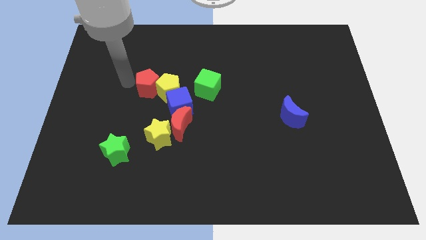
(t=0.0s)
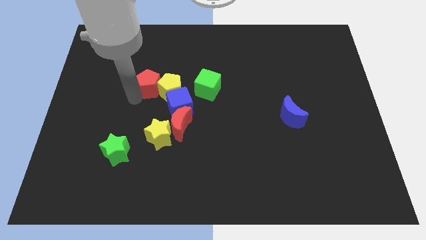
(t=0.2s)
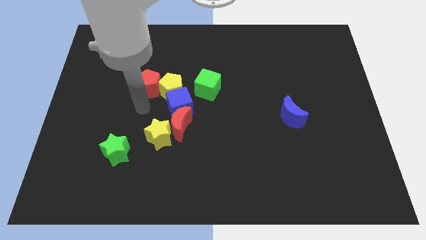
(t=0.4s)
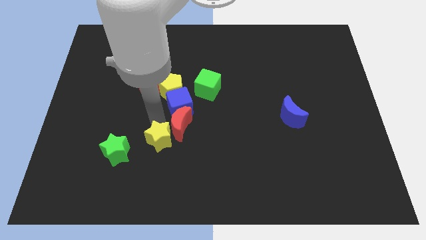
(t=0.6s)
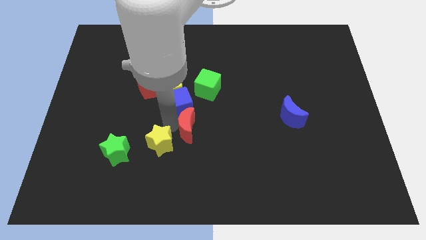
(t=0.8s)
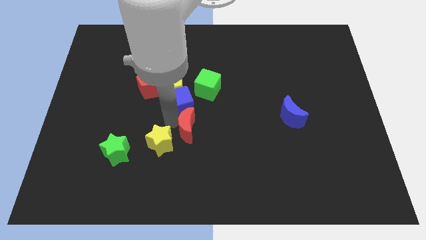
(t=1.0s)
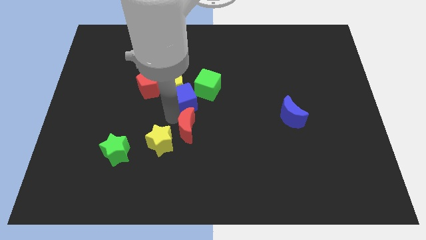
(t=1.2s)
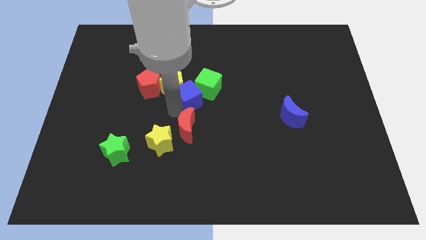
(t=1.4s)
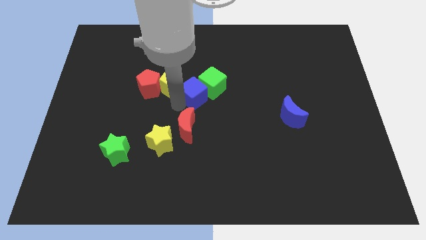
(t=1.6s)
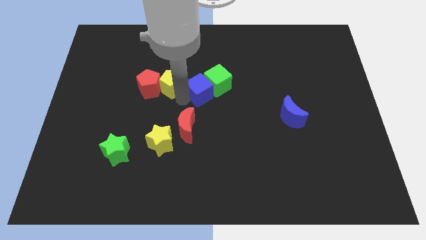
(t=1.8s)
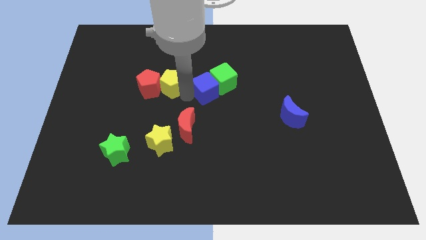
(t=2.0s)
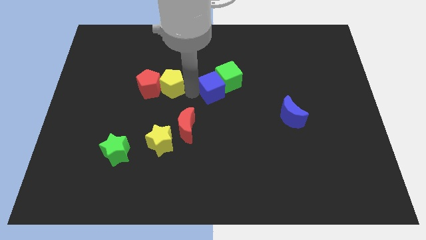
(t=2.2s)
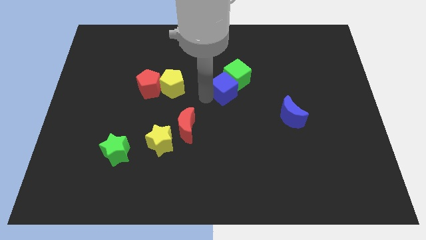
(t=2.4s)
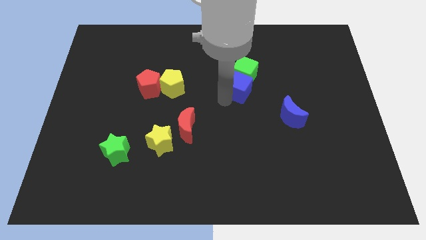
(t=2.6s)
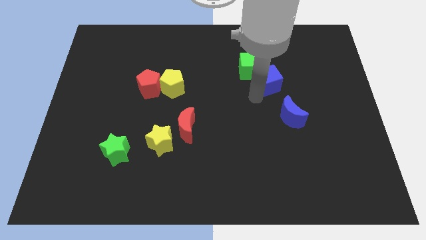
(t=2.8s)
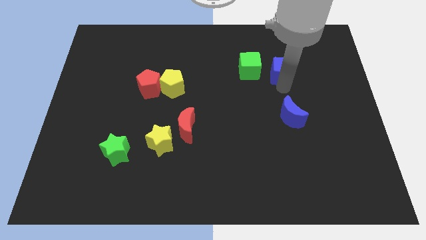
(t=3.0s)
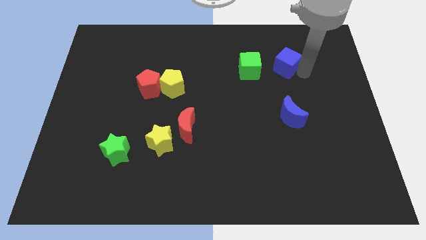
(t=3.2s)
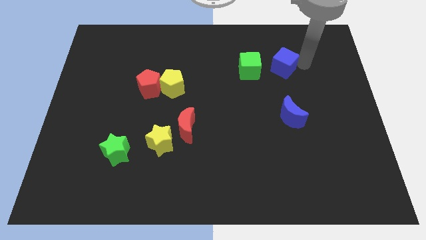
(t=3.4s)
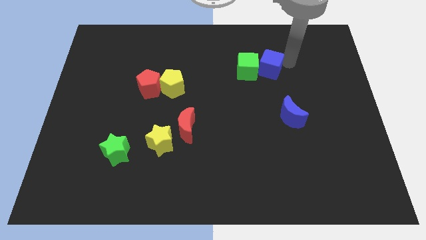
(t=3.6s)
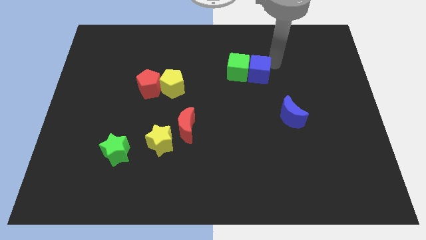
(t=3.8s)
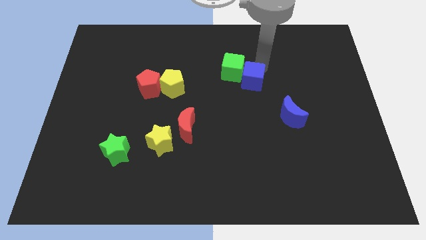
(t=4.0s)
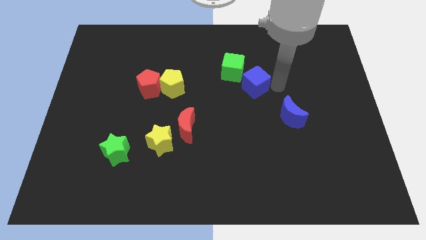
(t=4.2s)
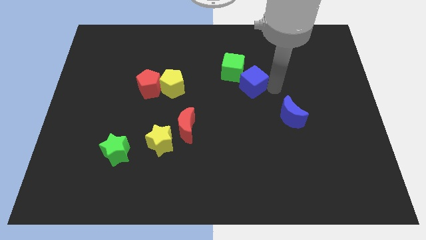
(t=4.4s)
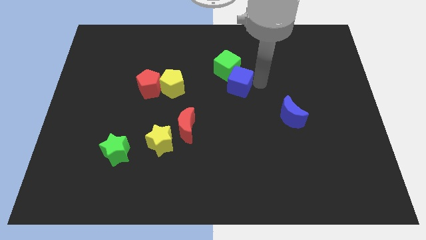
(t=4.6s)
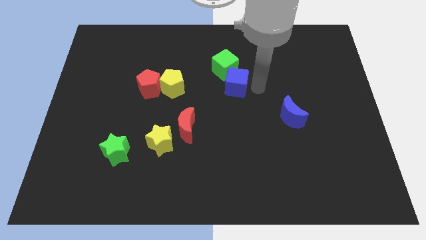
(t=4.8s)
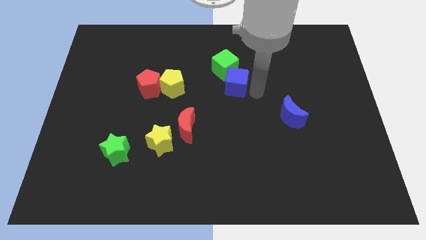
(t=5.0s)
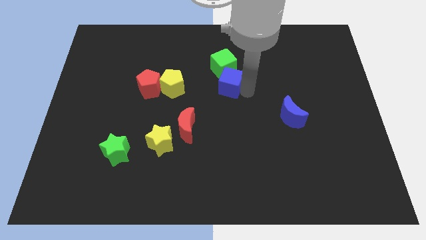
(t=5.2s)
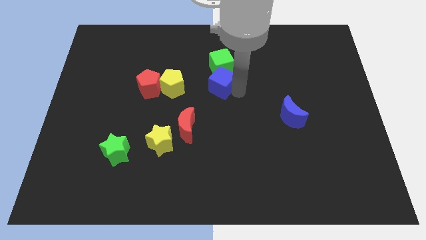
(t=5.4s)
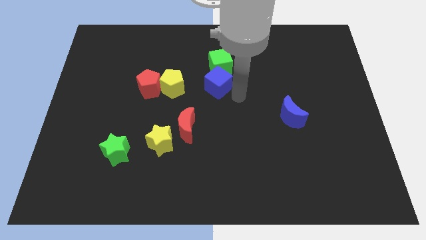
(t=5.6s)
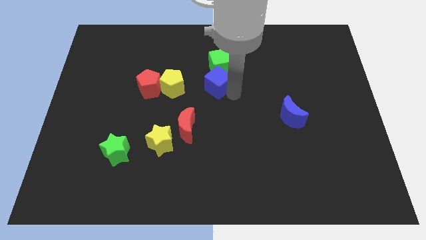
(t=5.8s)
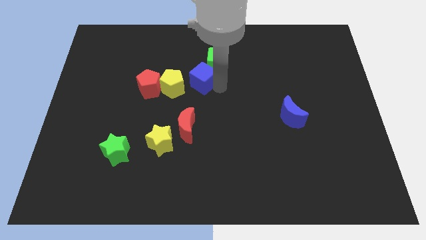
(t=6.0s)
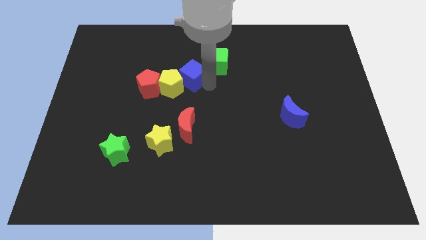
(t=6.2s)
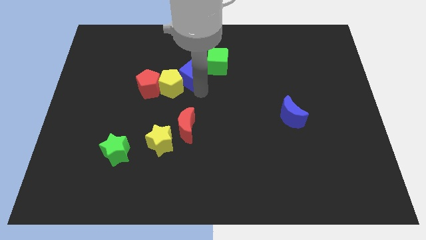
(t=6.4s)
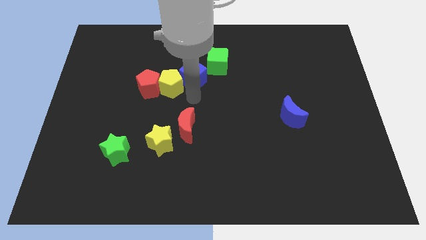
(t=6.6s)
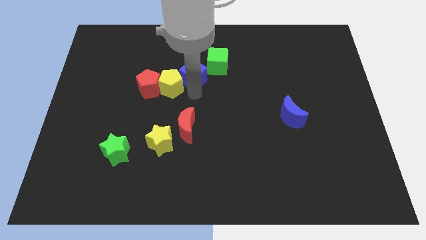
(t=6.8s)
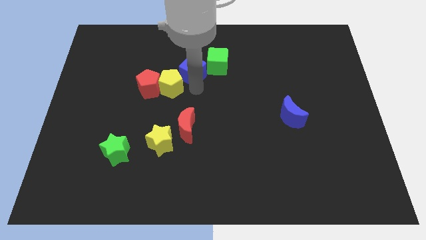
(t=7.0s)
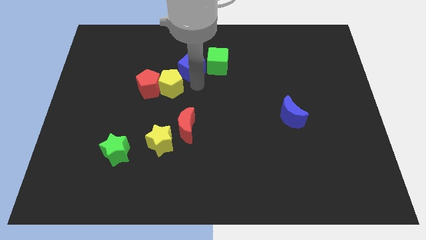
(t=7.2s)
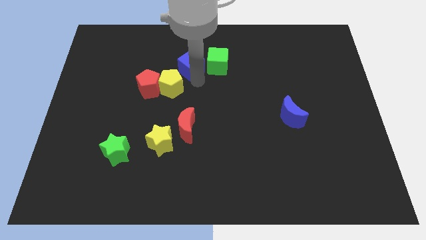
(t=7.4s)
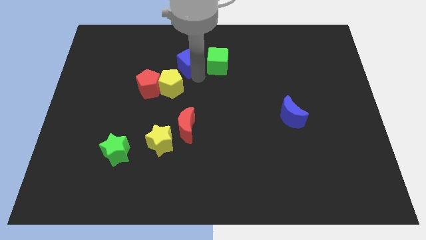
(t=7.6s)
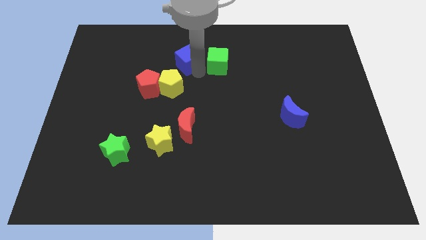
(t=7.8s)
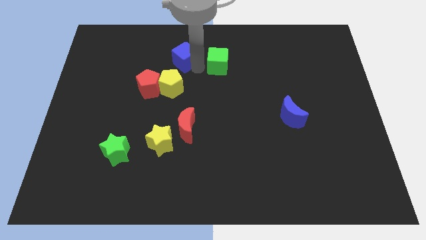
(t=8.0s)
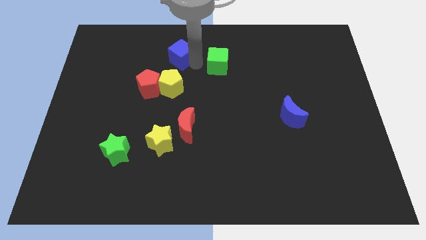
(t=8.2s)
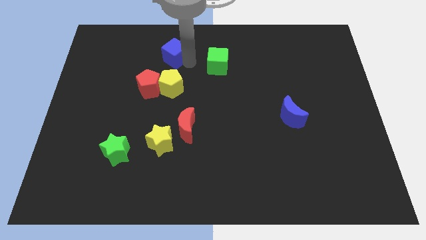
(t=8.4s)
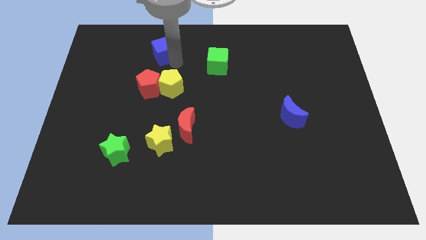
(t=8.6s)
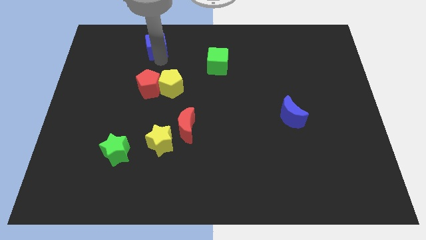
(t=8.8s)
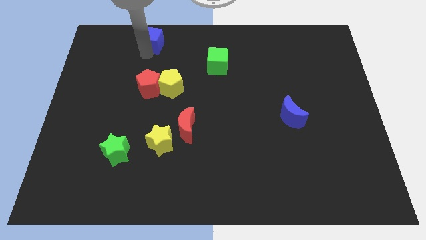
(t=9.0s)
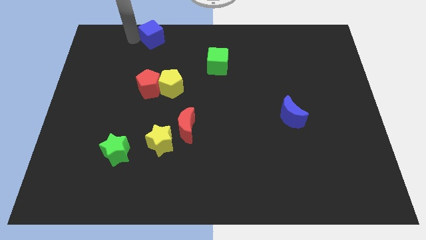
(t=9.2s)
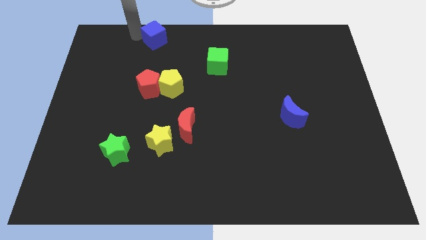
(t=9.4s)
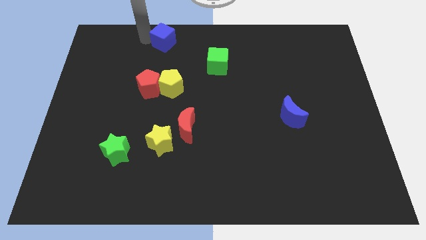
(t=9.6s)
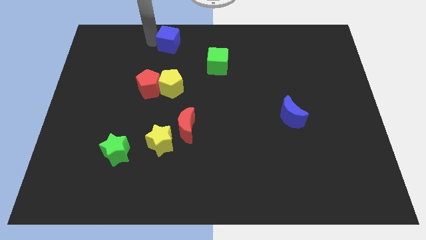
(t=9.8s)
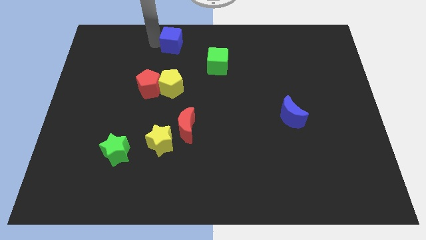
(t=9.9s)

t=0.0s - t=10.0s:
slide the blue cube to the top

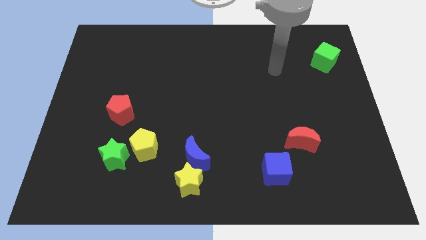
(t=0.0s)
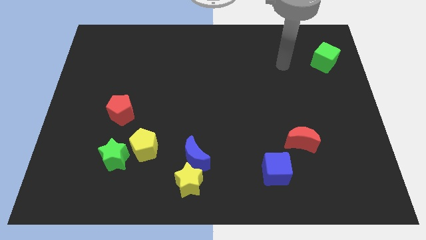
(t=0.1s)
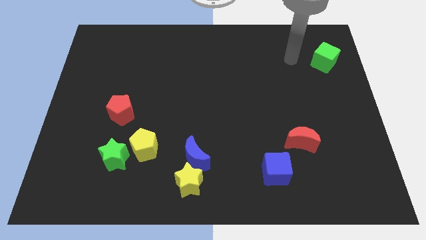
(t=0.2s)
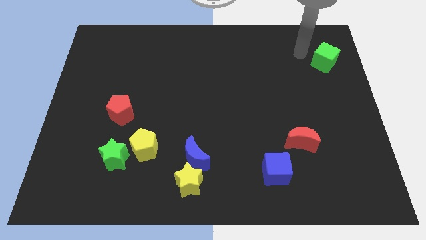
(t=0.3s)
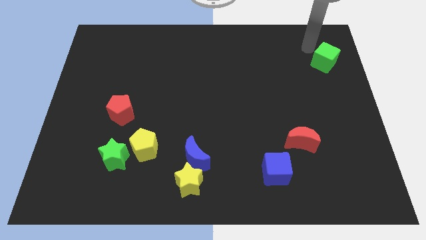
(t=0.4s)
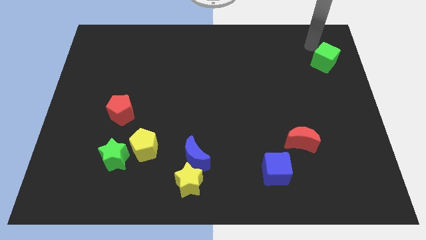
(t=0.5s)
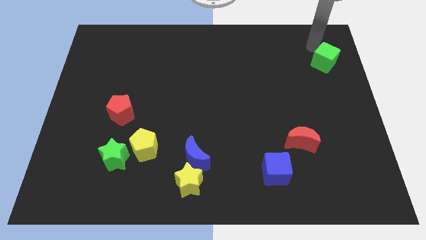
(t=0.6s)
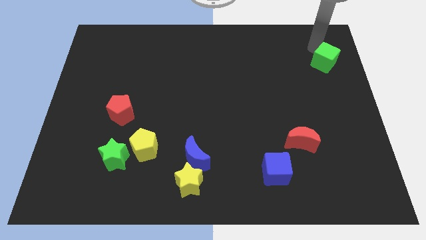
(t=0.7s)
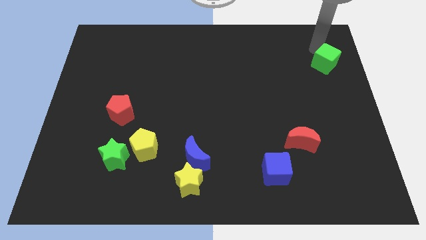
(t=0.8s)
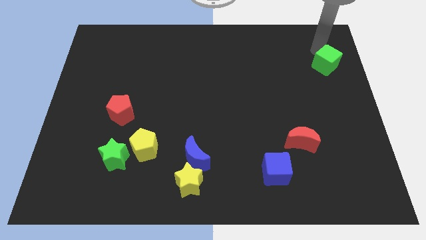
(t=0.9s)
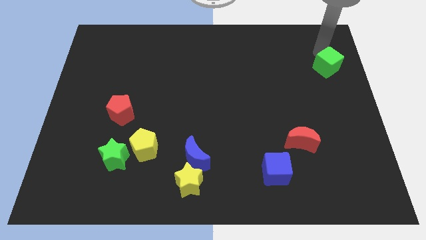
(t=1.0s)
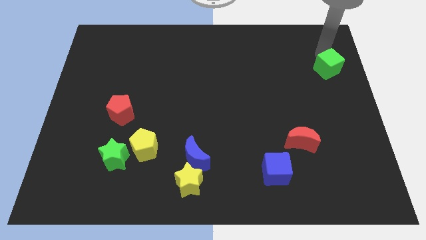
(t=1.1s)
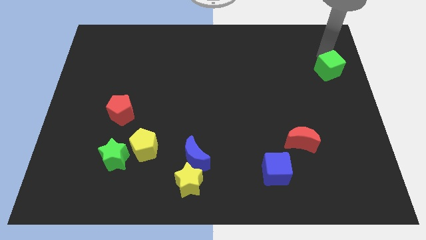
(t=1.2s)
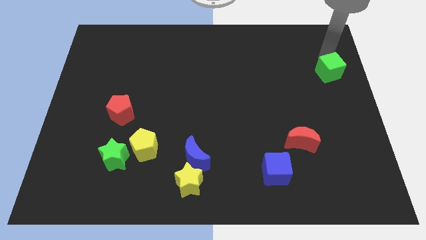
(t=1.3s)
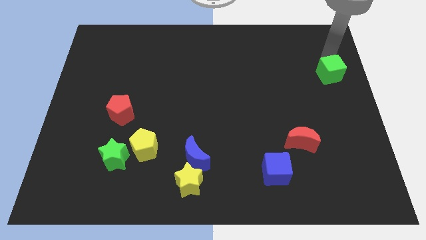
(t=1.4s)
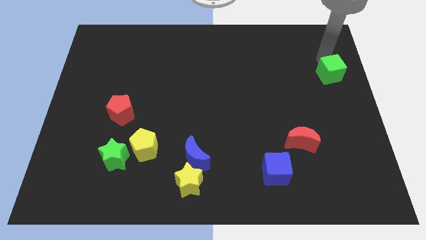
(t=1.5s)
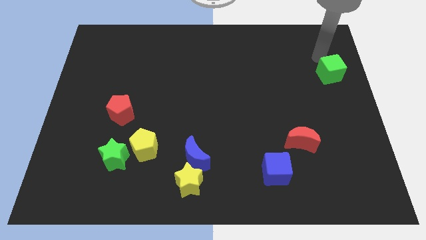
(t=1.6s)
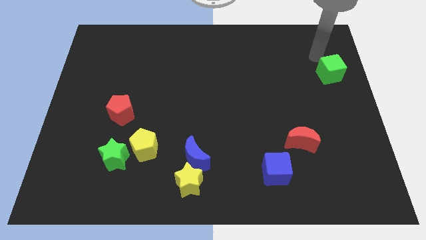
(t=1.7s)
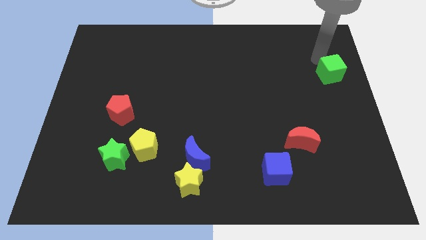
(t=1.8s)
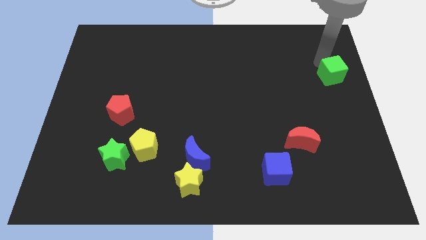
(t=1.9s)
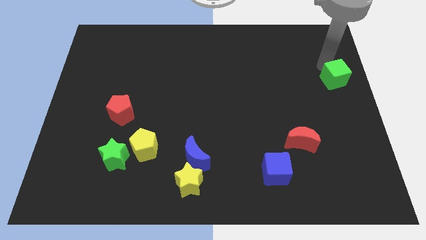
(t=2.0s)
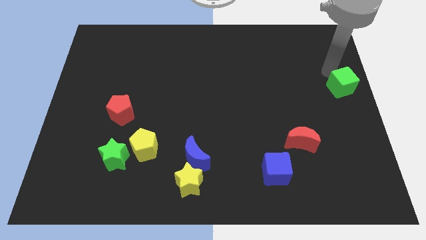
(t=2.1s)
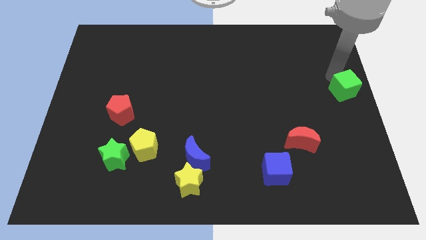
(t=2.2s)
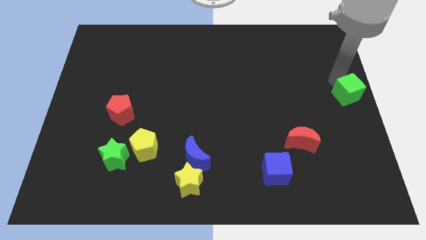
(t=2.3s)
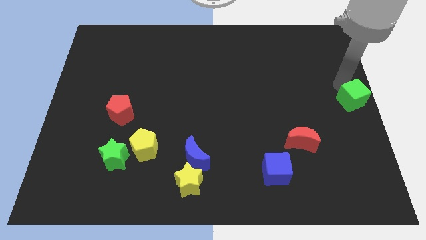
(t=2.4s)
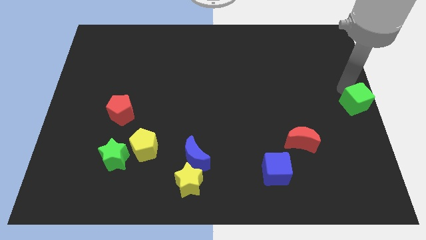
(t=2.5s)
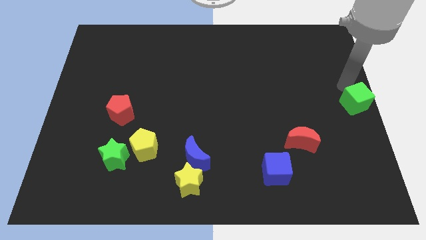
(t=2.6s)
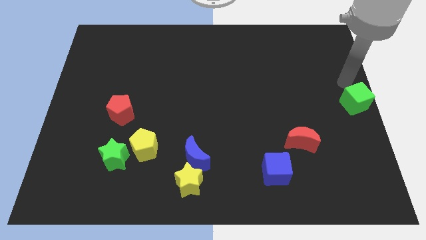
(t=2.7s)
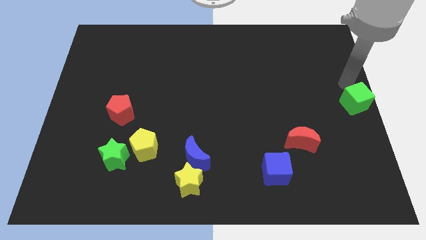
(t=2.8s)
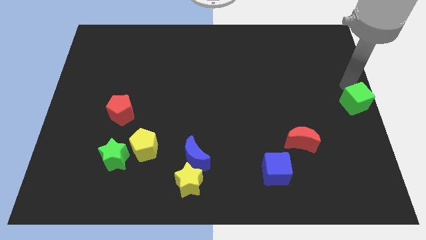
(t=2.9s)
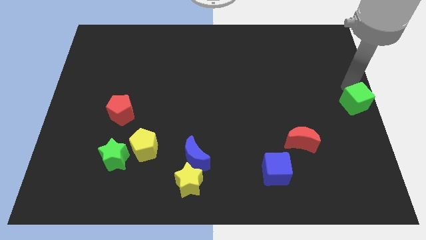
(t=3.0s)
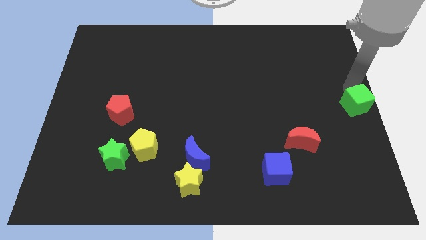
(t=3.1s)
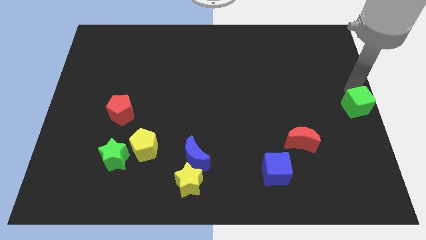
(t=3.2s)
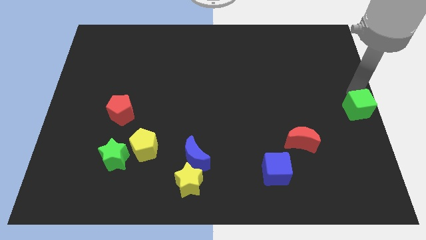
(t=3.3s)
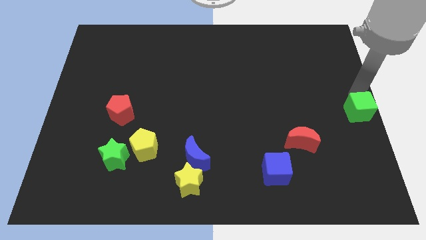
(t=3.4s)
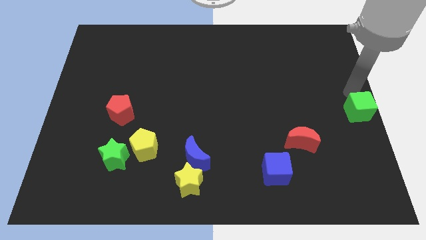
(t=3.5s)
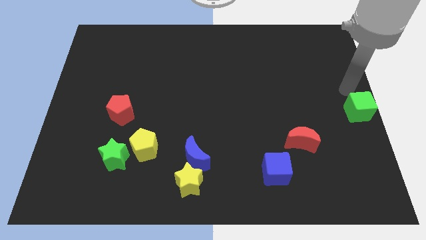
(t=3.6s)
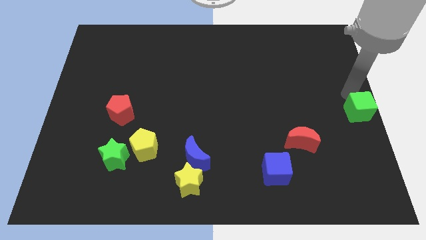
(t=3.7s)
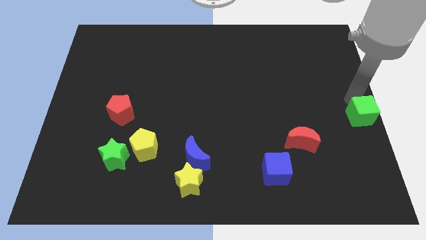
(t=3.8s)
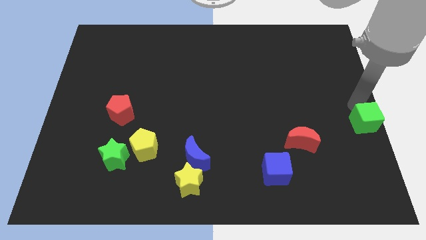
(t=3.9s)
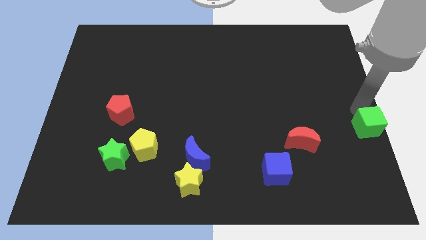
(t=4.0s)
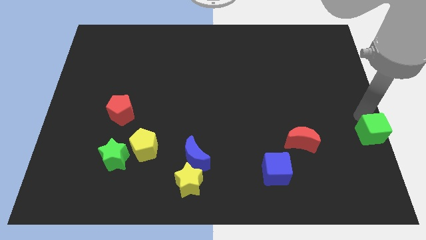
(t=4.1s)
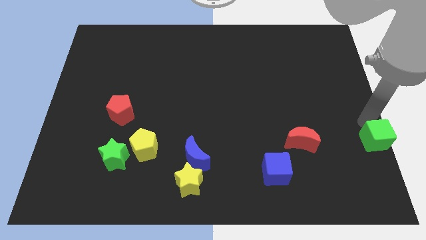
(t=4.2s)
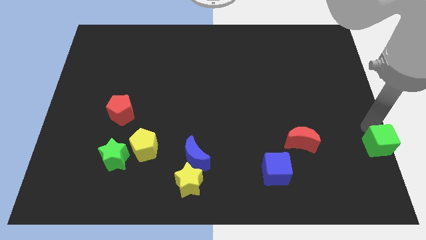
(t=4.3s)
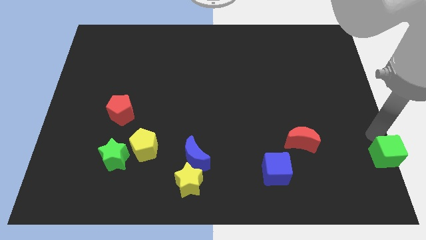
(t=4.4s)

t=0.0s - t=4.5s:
move the green cube to the bottom right
